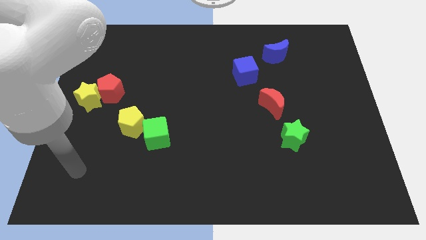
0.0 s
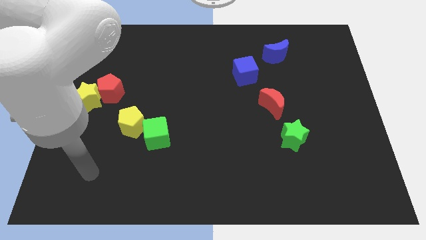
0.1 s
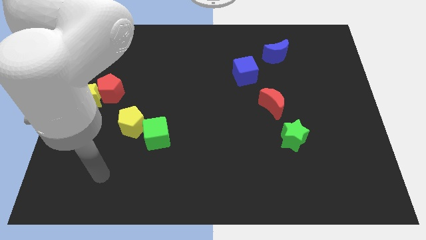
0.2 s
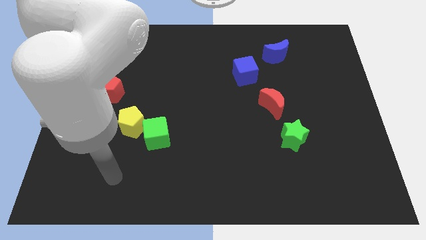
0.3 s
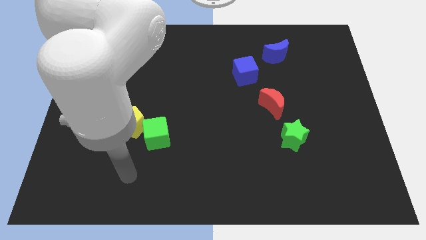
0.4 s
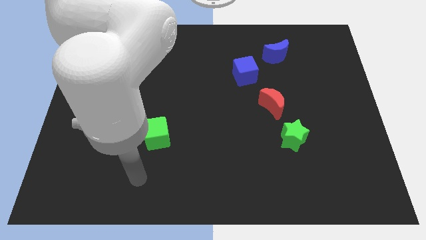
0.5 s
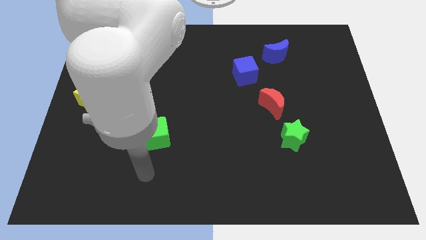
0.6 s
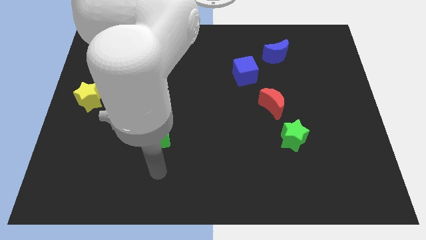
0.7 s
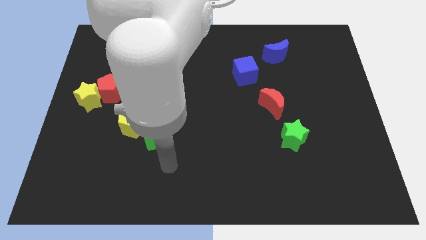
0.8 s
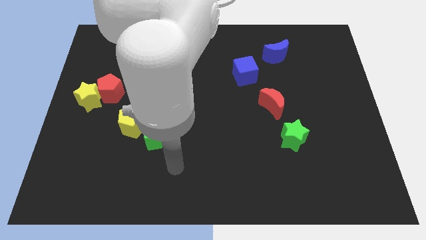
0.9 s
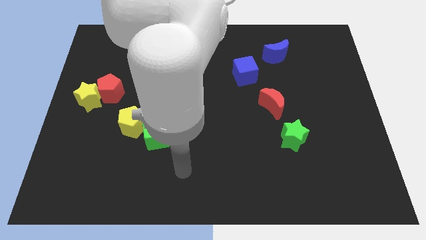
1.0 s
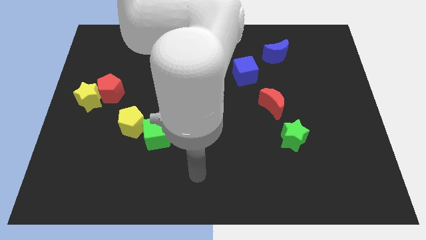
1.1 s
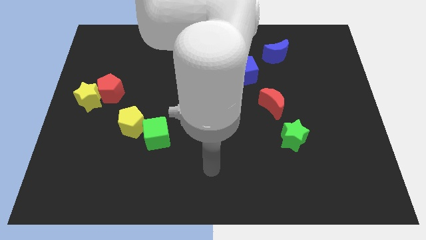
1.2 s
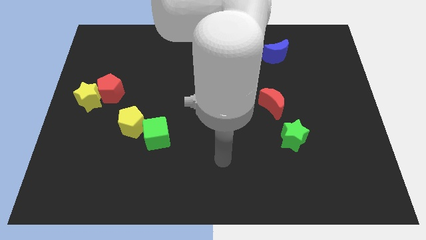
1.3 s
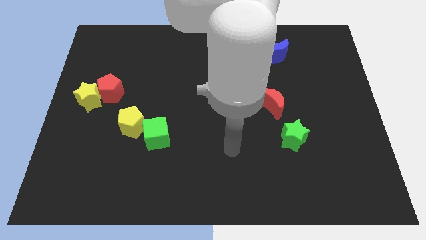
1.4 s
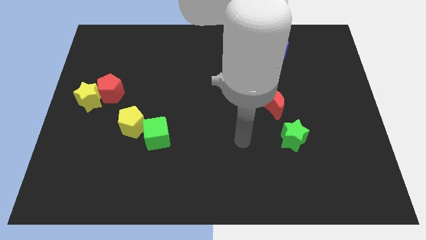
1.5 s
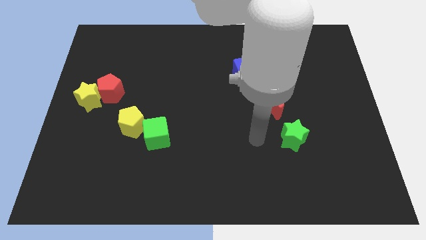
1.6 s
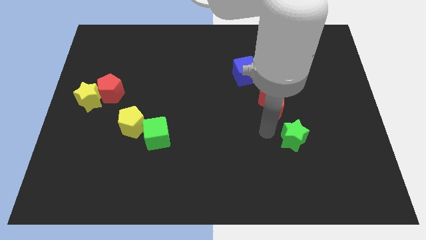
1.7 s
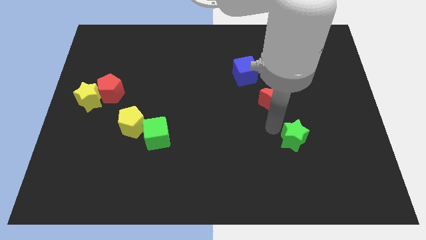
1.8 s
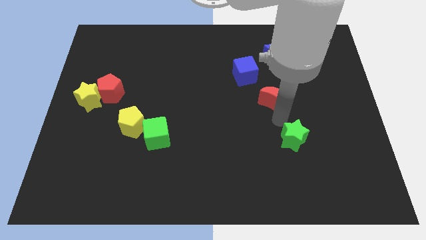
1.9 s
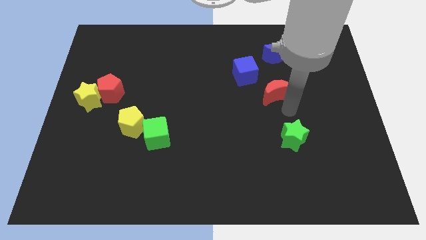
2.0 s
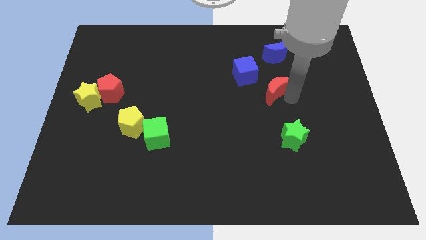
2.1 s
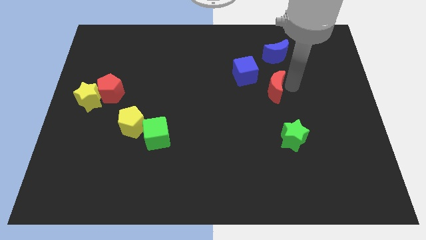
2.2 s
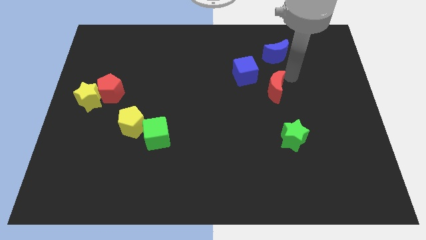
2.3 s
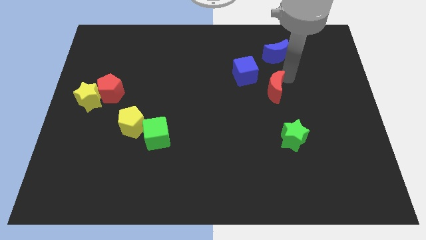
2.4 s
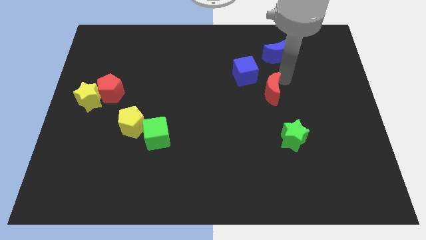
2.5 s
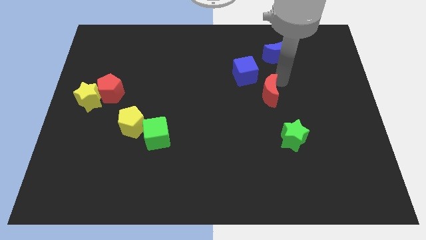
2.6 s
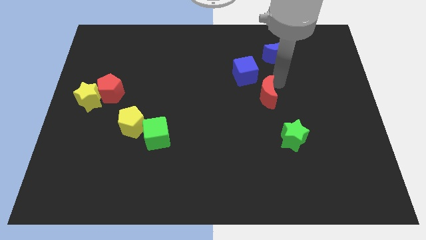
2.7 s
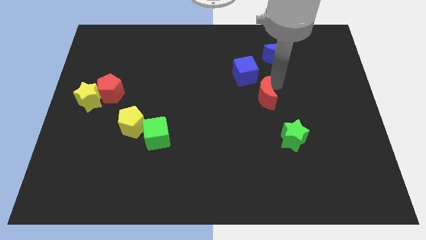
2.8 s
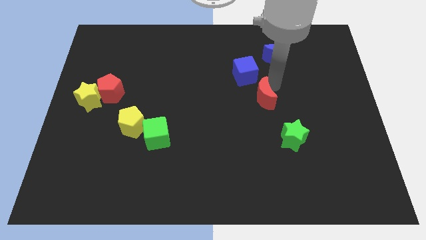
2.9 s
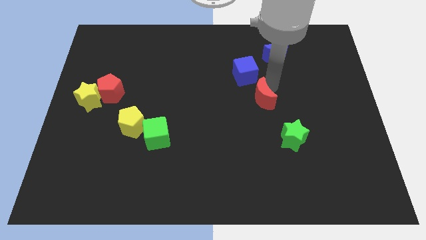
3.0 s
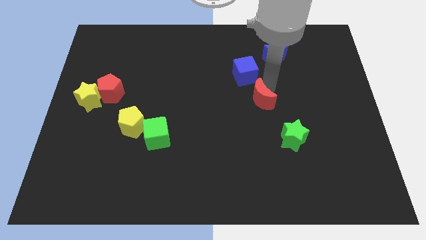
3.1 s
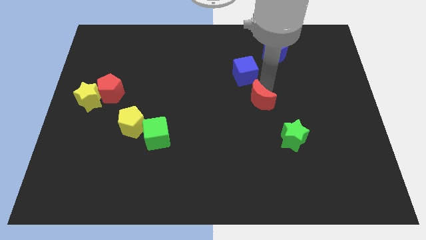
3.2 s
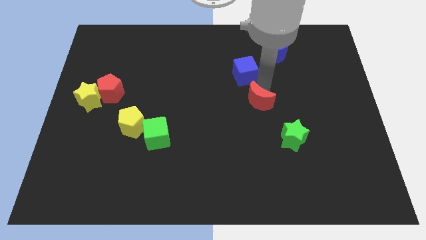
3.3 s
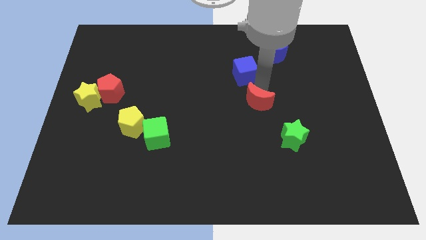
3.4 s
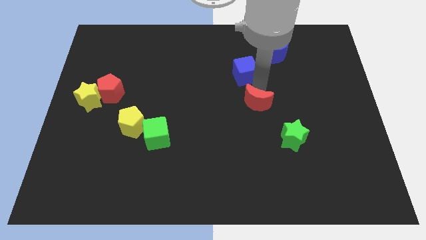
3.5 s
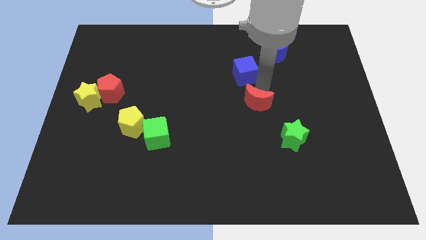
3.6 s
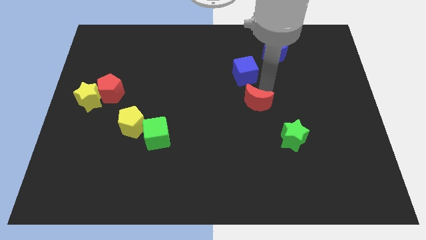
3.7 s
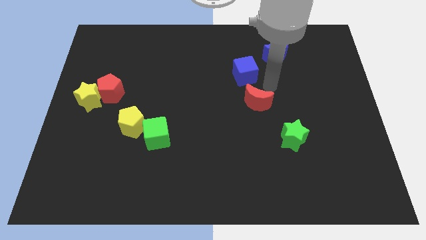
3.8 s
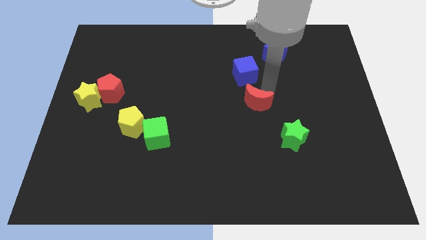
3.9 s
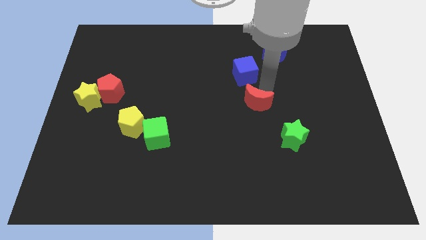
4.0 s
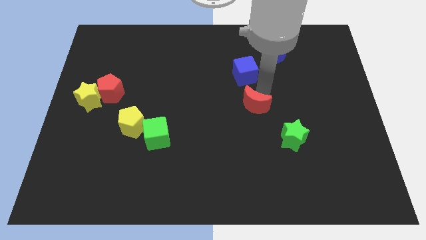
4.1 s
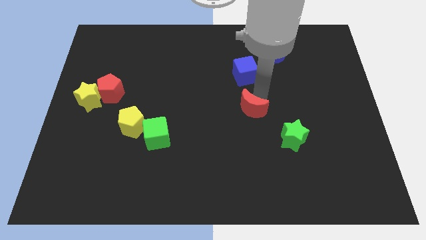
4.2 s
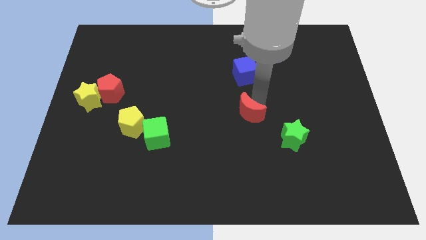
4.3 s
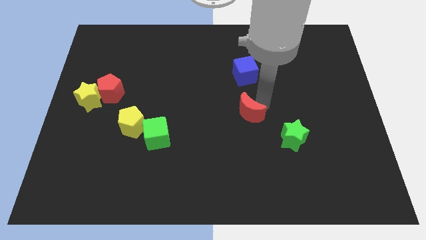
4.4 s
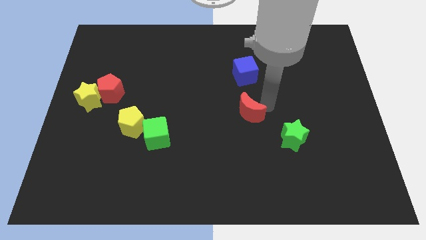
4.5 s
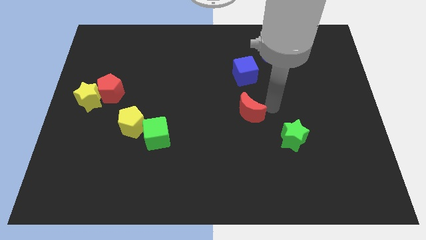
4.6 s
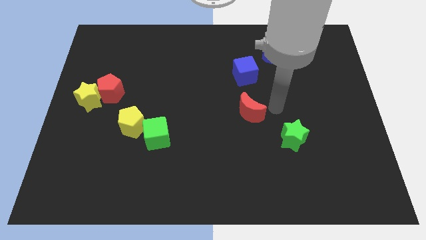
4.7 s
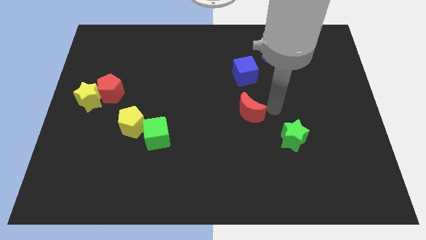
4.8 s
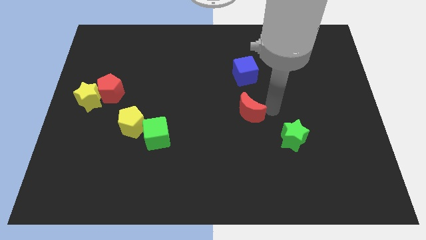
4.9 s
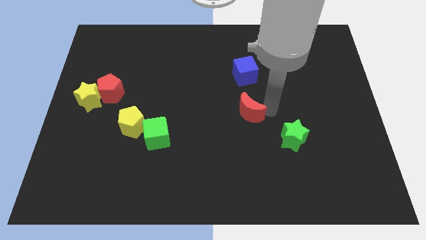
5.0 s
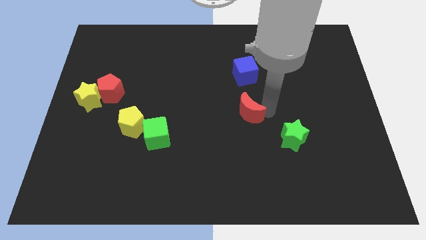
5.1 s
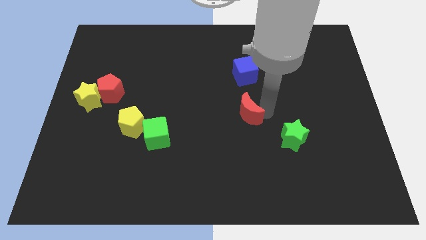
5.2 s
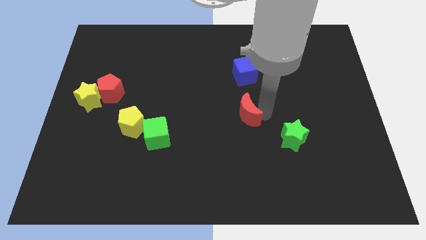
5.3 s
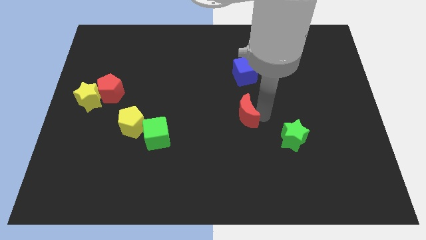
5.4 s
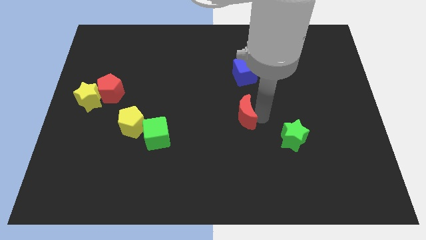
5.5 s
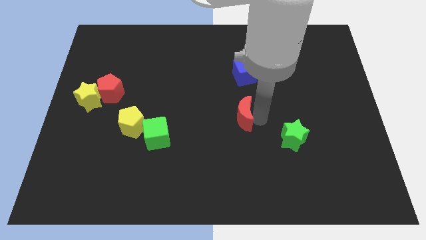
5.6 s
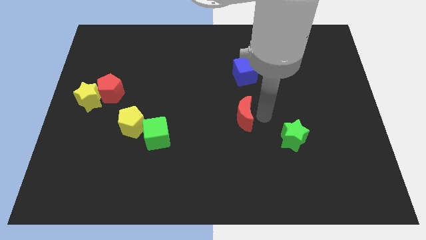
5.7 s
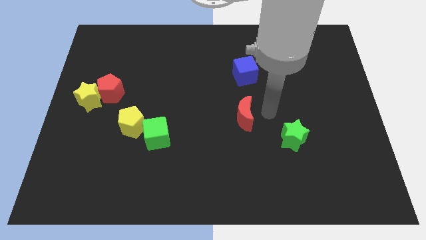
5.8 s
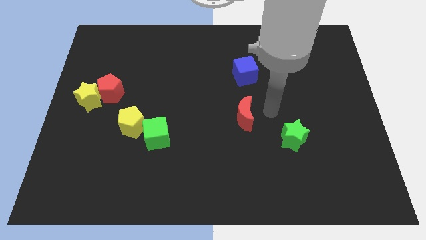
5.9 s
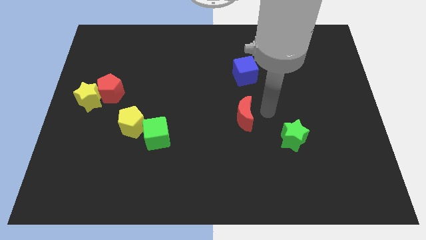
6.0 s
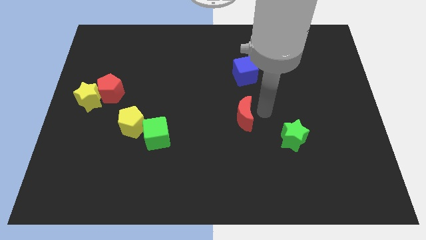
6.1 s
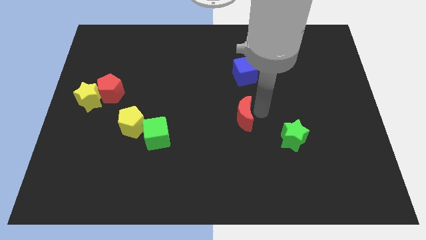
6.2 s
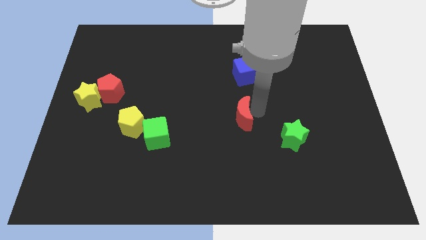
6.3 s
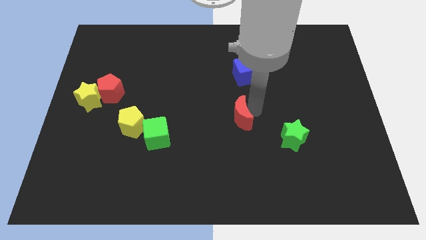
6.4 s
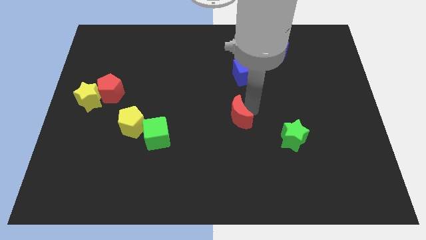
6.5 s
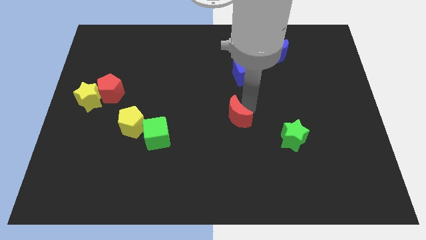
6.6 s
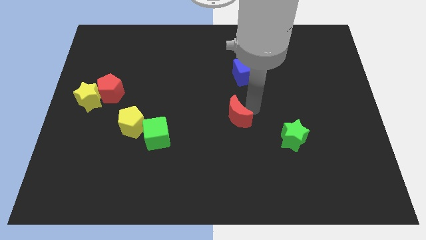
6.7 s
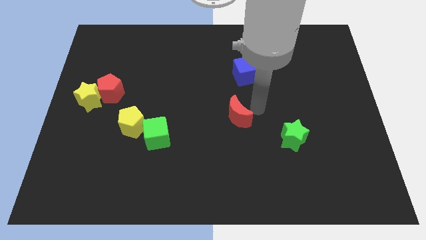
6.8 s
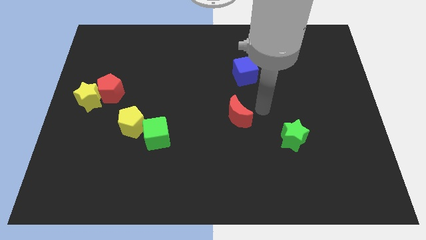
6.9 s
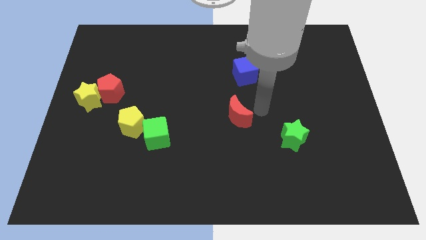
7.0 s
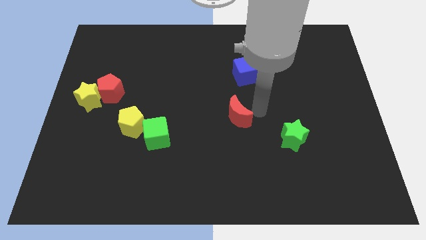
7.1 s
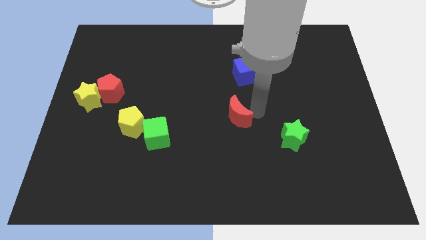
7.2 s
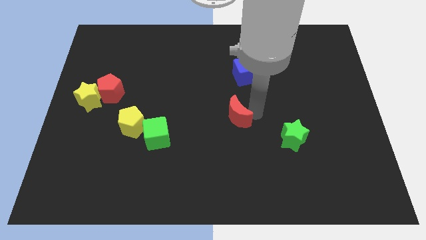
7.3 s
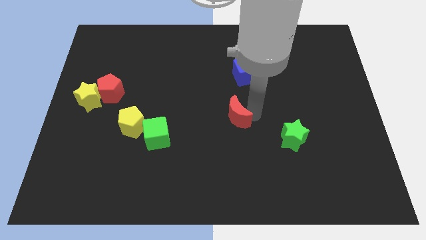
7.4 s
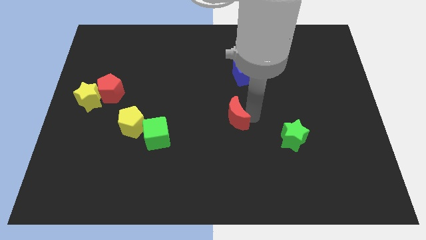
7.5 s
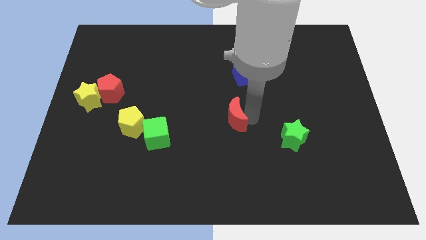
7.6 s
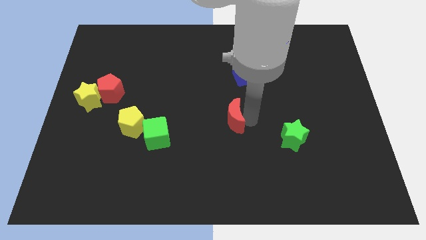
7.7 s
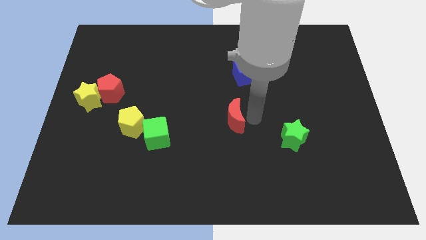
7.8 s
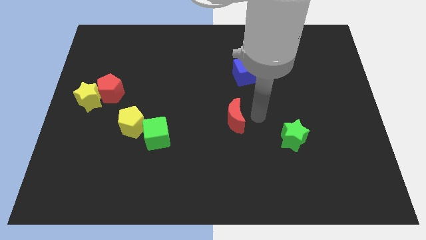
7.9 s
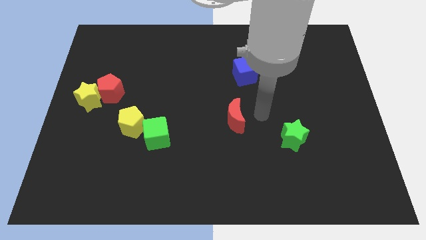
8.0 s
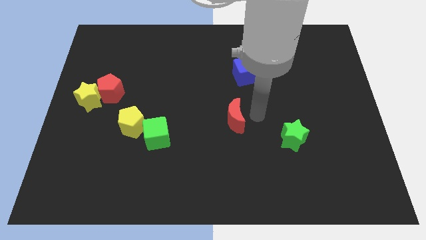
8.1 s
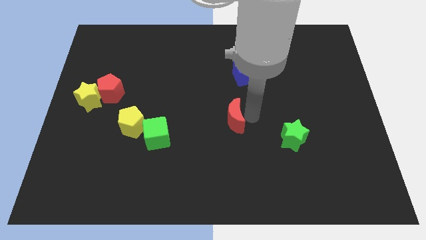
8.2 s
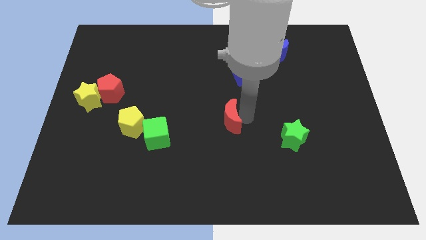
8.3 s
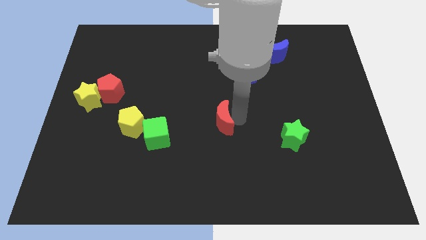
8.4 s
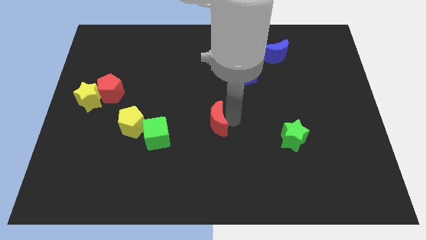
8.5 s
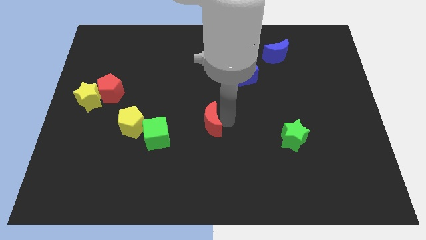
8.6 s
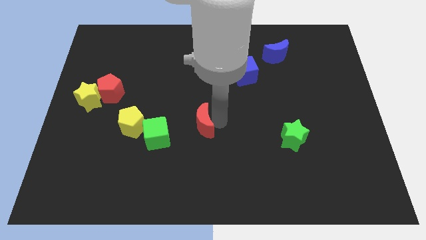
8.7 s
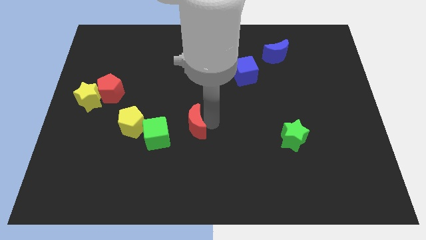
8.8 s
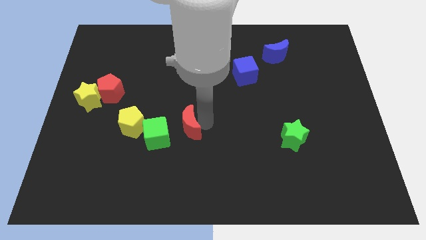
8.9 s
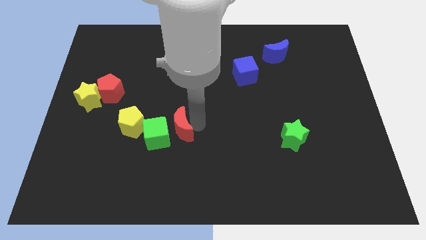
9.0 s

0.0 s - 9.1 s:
put the red moon to the green cube
